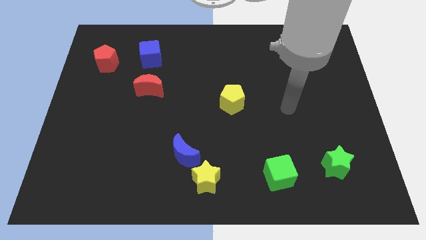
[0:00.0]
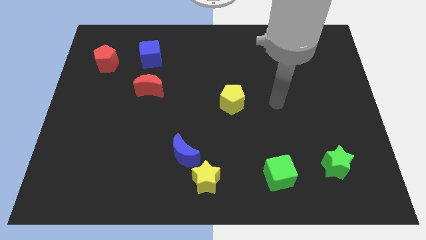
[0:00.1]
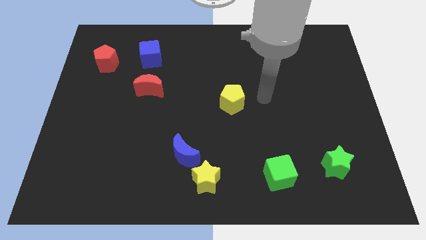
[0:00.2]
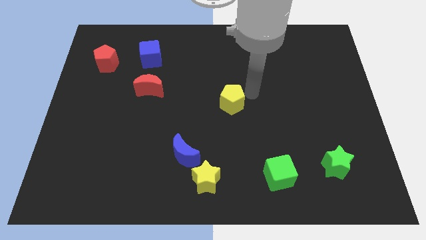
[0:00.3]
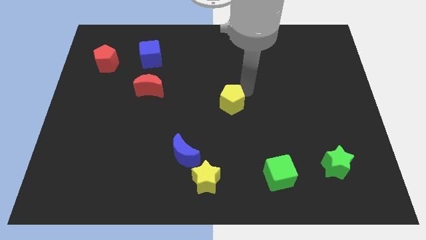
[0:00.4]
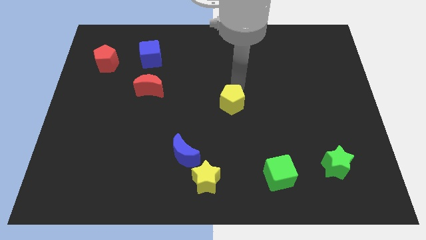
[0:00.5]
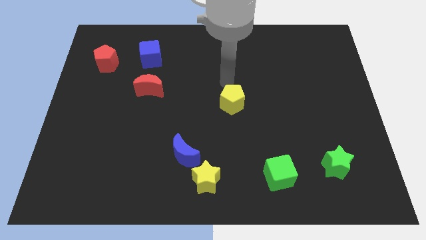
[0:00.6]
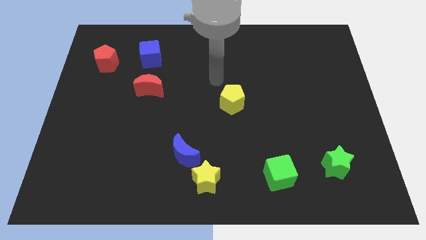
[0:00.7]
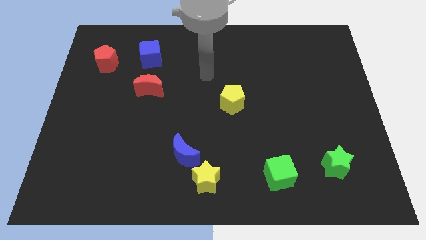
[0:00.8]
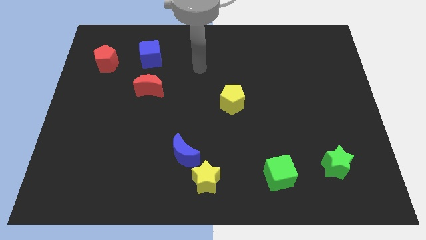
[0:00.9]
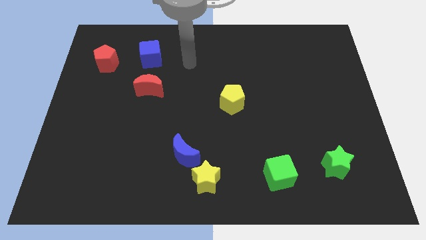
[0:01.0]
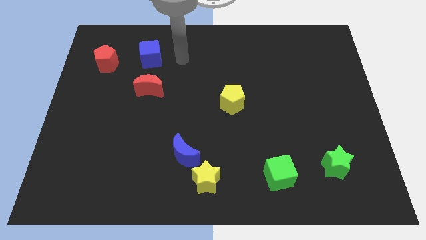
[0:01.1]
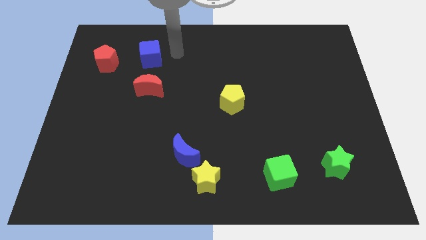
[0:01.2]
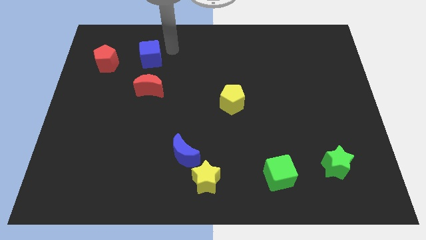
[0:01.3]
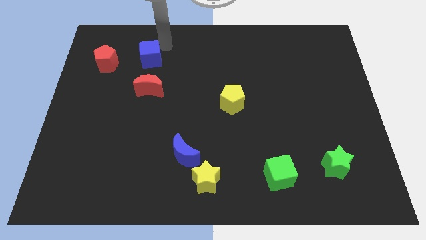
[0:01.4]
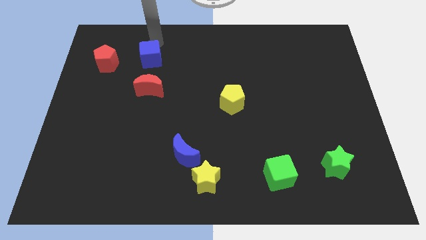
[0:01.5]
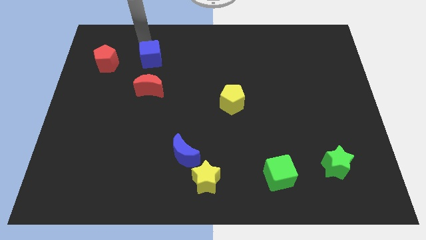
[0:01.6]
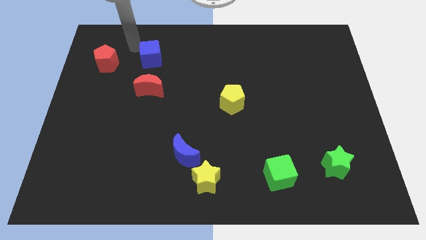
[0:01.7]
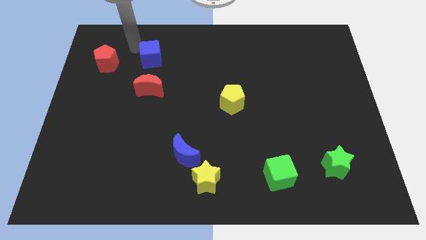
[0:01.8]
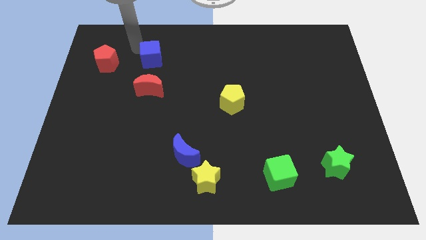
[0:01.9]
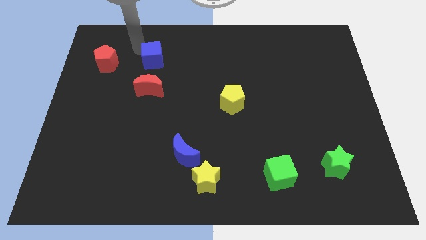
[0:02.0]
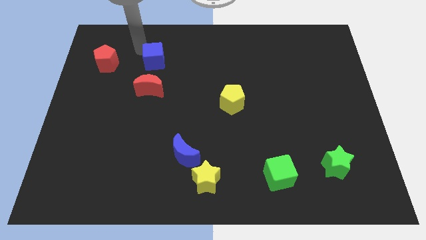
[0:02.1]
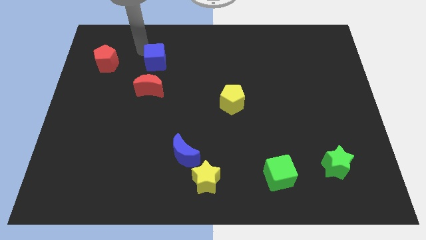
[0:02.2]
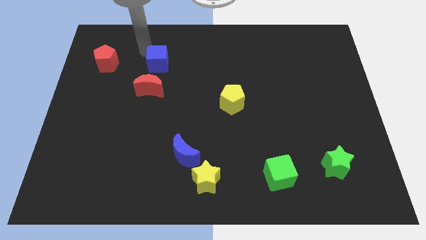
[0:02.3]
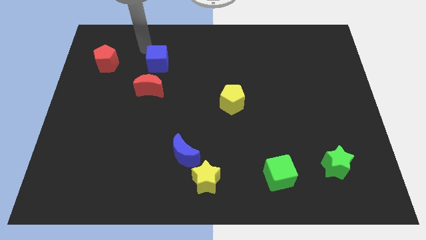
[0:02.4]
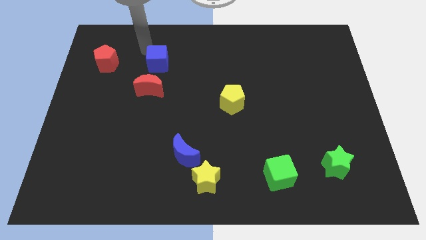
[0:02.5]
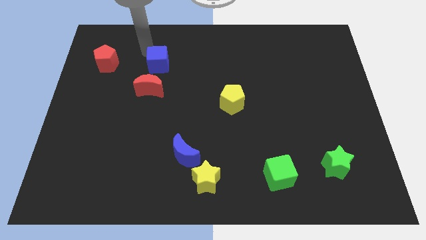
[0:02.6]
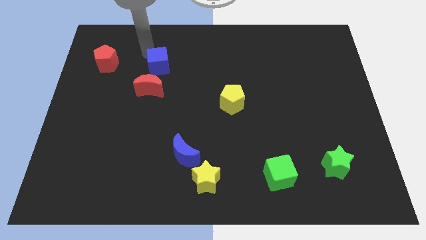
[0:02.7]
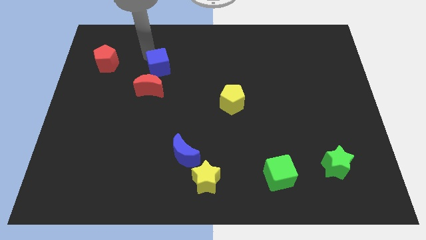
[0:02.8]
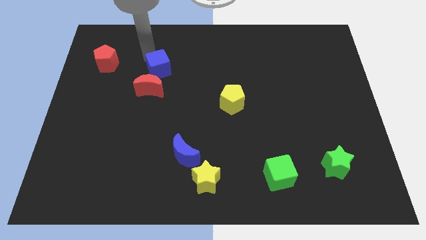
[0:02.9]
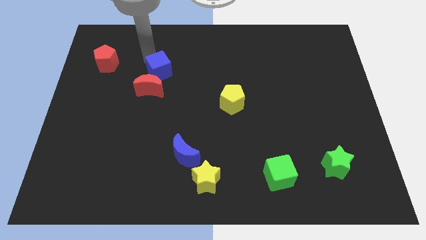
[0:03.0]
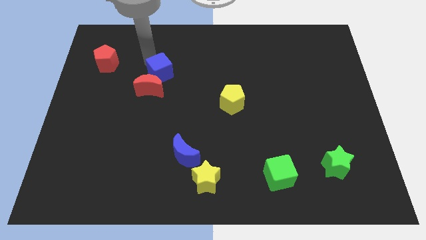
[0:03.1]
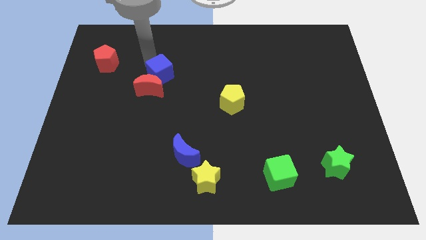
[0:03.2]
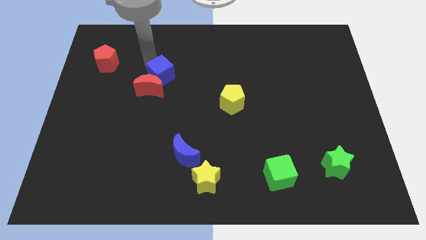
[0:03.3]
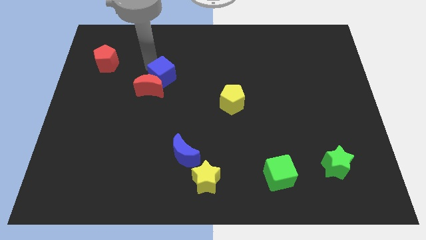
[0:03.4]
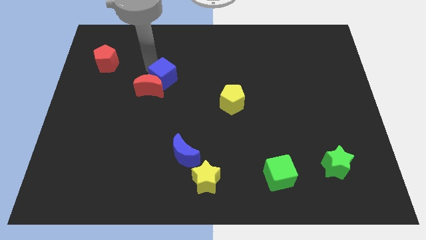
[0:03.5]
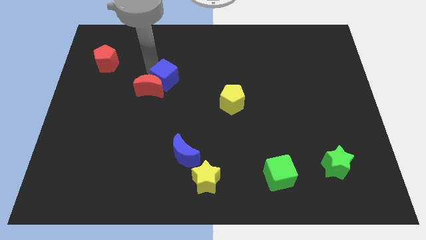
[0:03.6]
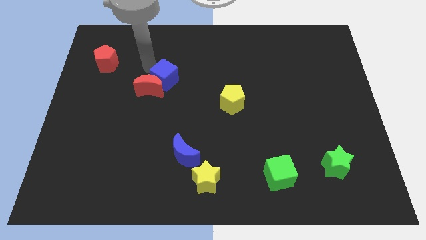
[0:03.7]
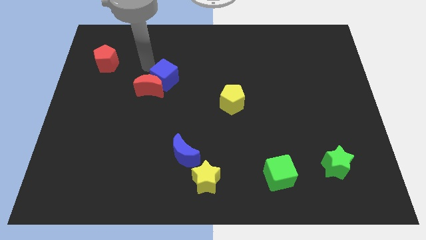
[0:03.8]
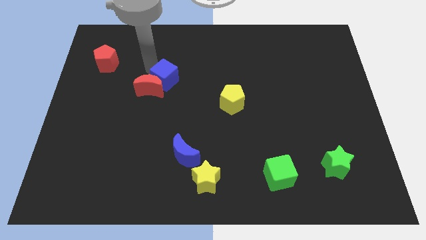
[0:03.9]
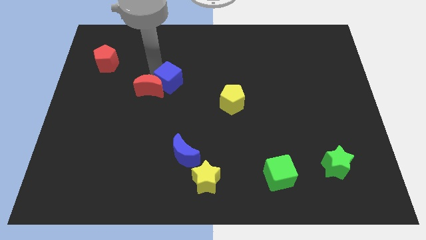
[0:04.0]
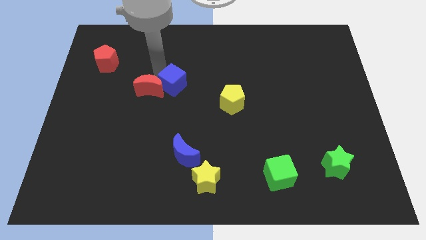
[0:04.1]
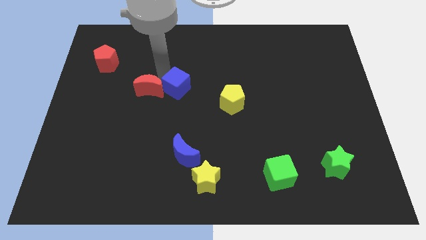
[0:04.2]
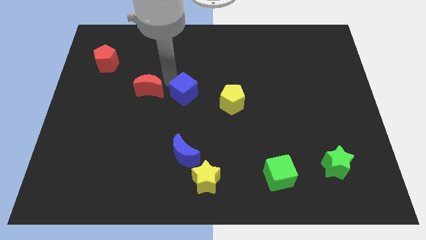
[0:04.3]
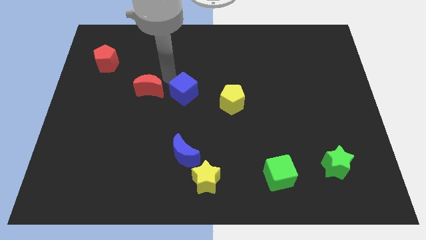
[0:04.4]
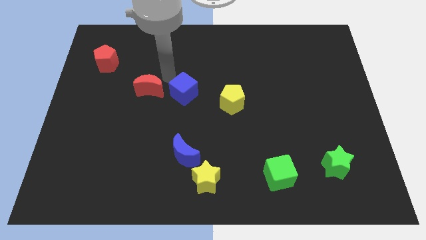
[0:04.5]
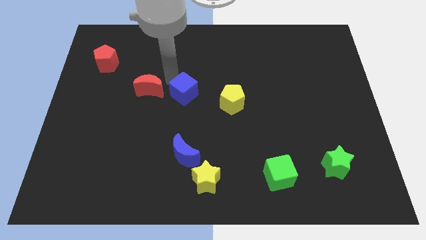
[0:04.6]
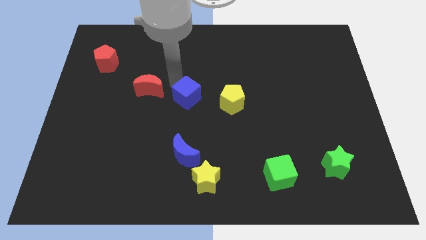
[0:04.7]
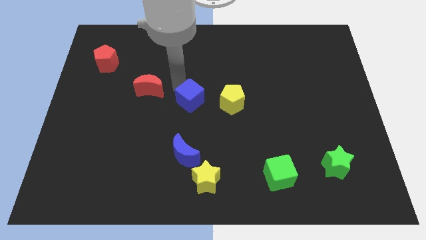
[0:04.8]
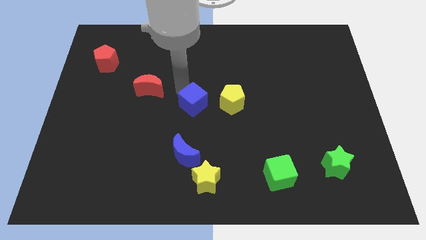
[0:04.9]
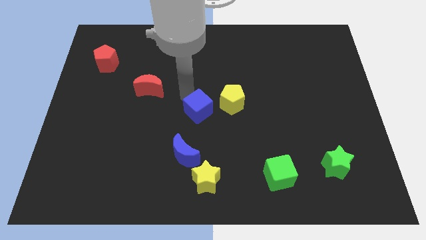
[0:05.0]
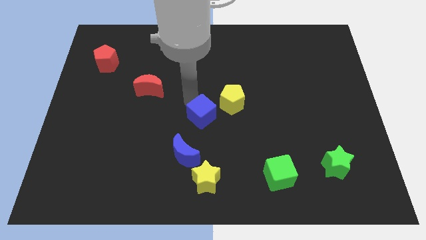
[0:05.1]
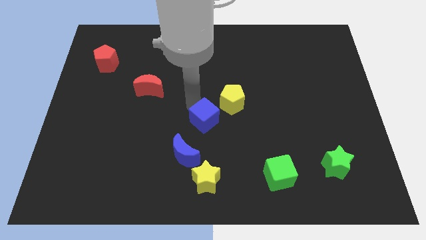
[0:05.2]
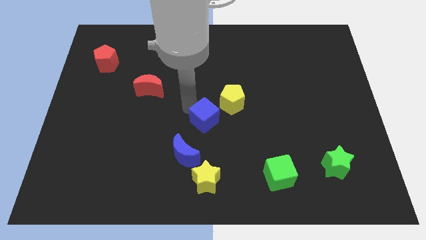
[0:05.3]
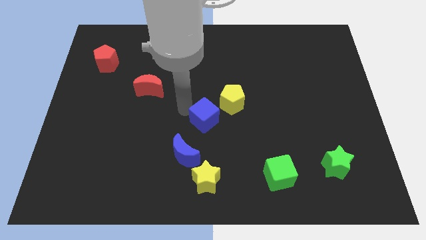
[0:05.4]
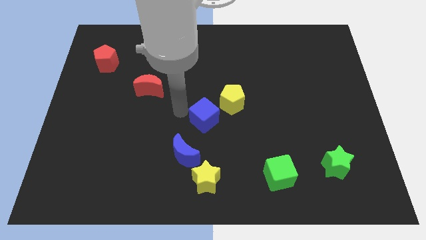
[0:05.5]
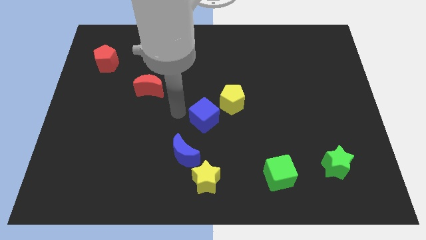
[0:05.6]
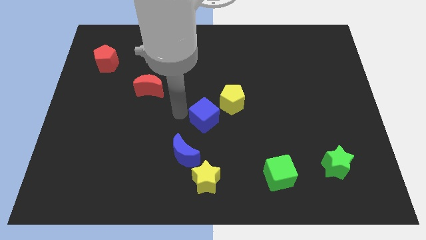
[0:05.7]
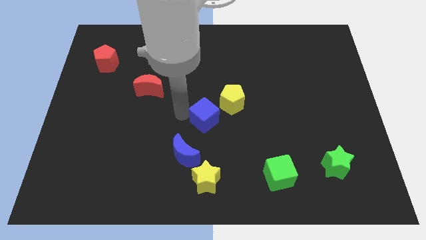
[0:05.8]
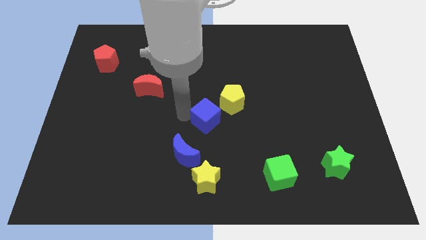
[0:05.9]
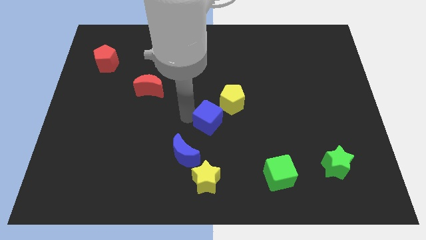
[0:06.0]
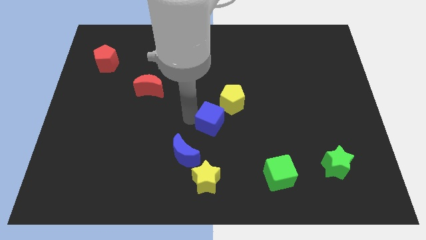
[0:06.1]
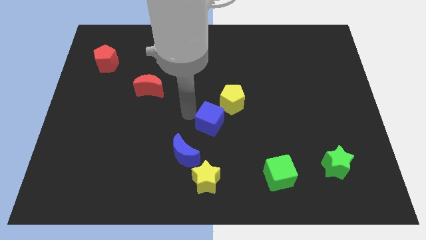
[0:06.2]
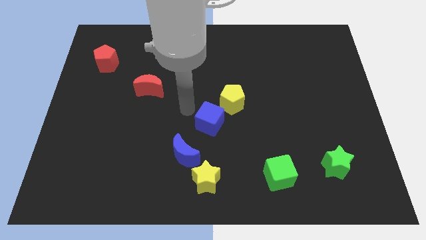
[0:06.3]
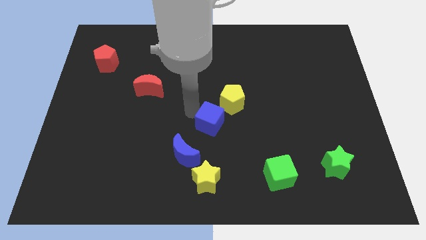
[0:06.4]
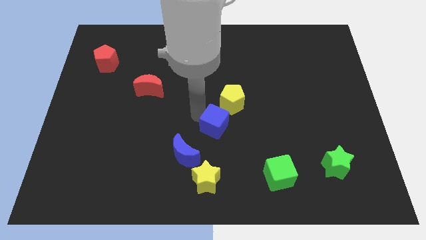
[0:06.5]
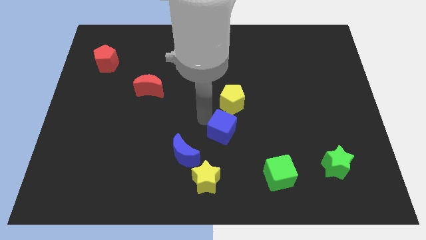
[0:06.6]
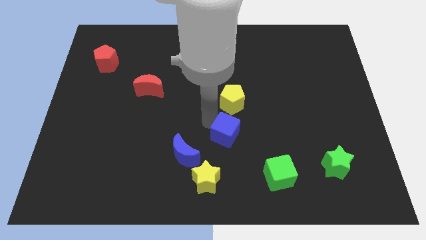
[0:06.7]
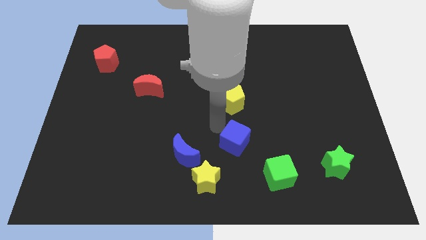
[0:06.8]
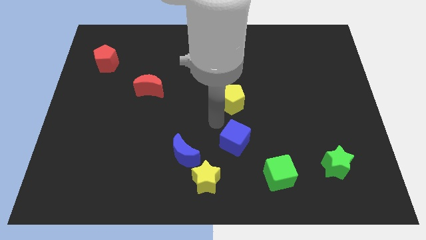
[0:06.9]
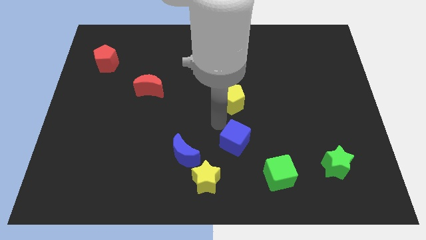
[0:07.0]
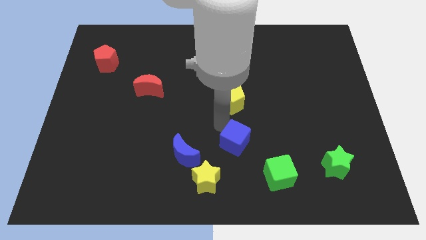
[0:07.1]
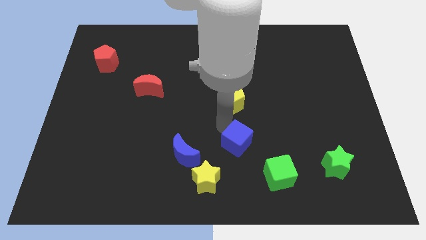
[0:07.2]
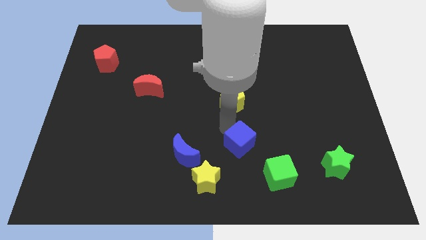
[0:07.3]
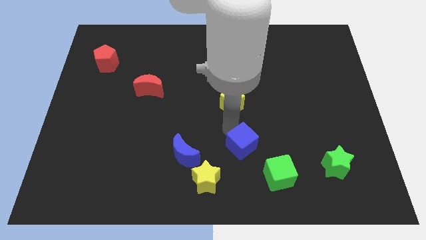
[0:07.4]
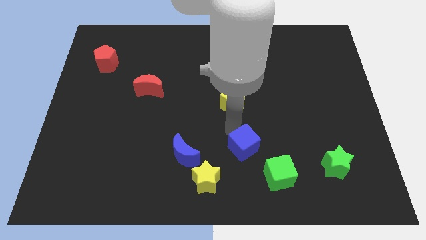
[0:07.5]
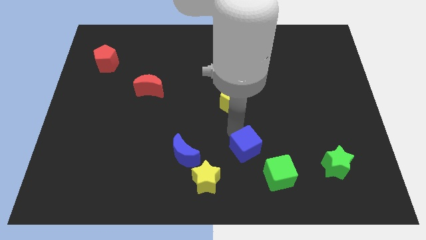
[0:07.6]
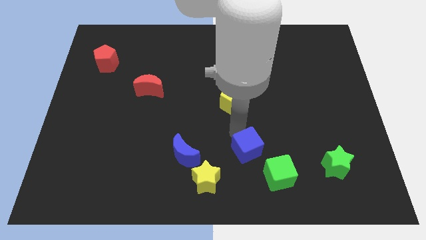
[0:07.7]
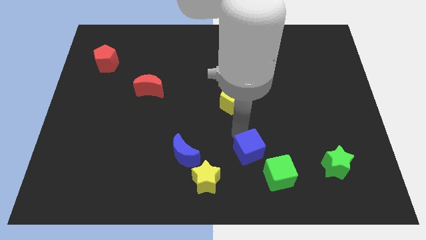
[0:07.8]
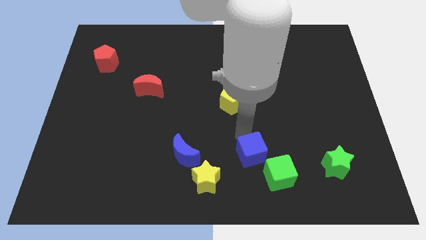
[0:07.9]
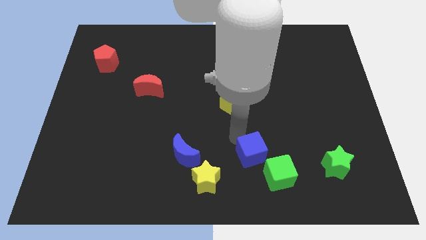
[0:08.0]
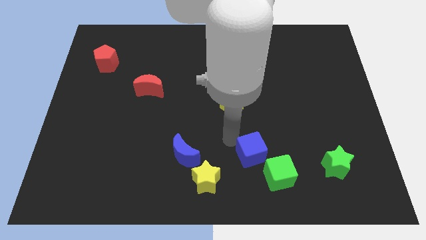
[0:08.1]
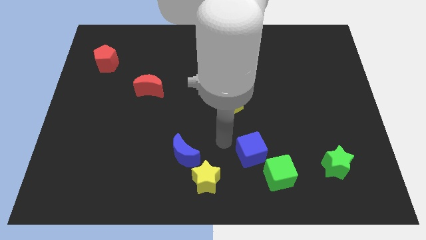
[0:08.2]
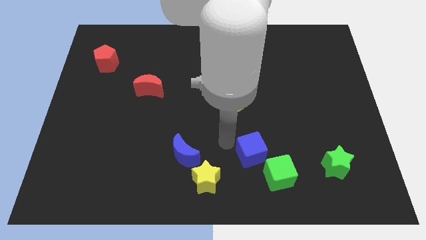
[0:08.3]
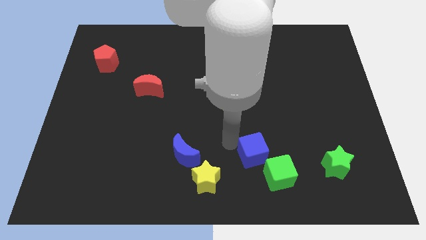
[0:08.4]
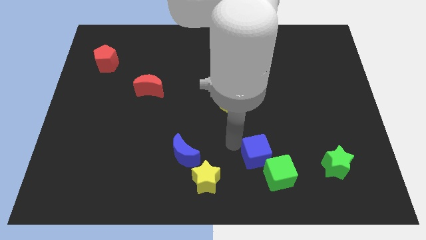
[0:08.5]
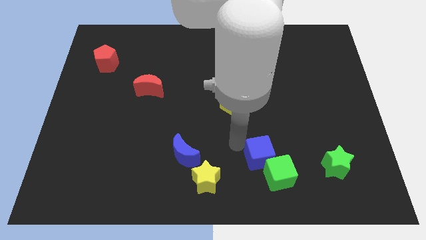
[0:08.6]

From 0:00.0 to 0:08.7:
push the blue cube to the left of the green star
